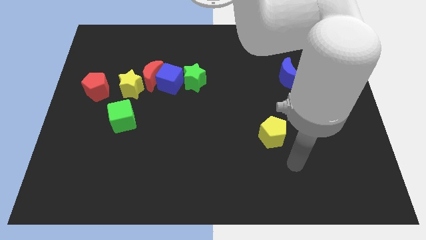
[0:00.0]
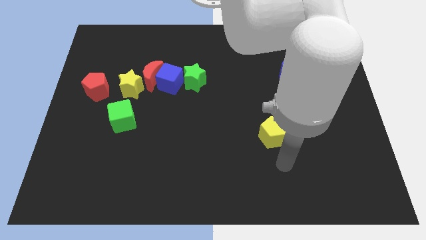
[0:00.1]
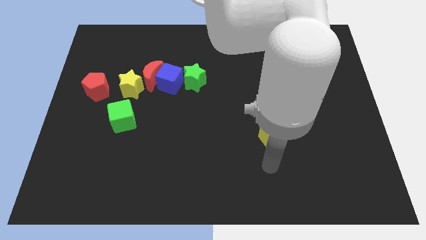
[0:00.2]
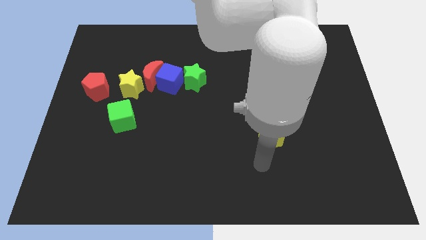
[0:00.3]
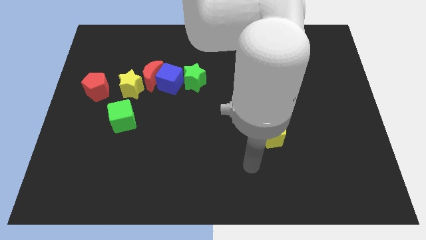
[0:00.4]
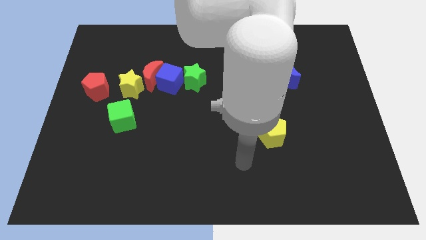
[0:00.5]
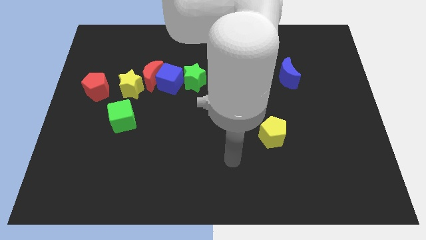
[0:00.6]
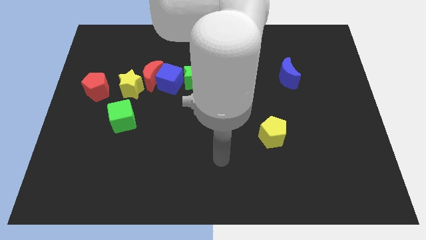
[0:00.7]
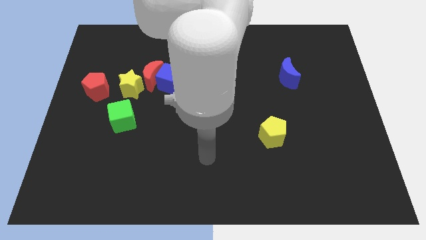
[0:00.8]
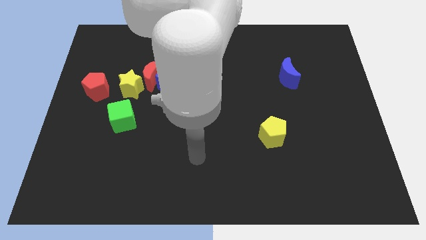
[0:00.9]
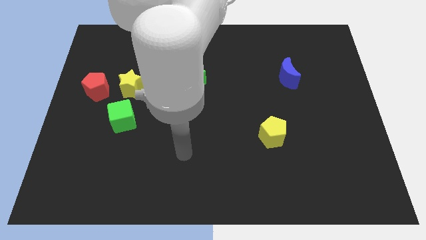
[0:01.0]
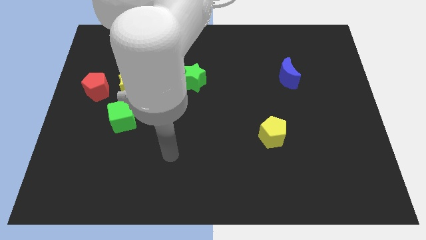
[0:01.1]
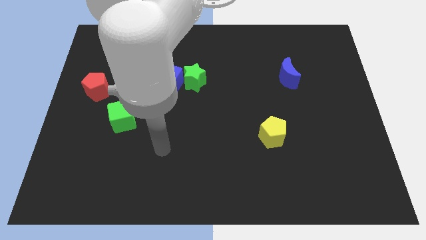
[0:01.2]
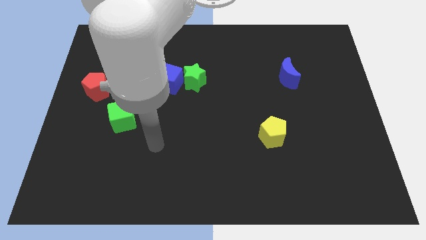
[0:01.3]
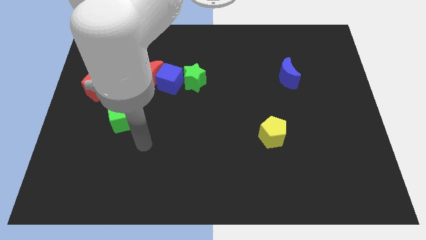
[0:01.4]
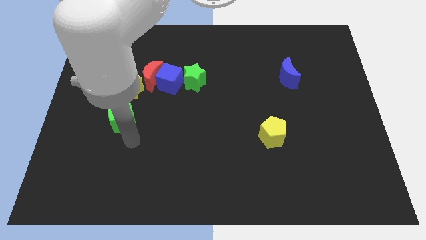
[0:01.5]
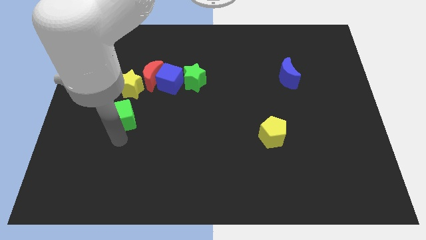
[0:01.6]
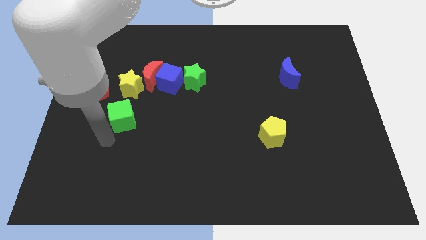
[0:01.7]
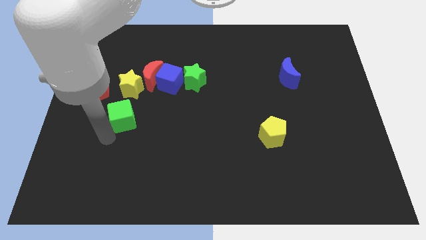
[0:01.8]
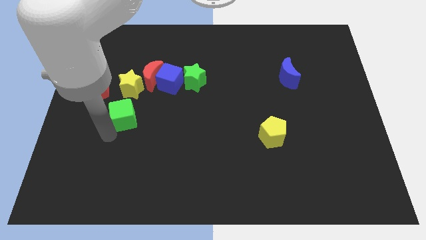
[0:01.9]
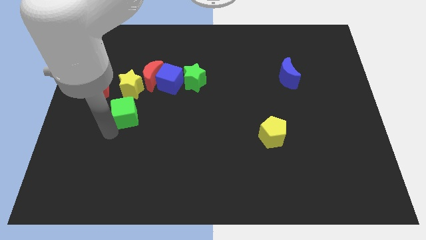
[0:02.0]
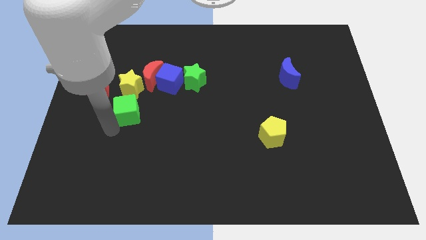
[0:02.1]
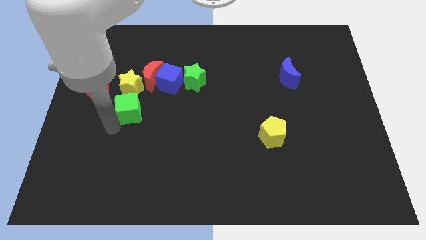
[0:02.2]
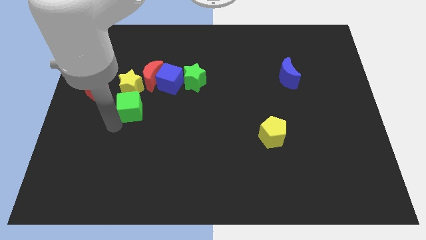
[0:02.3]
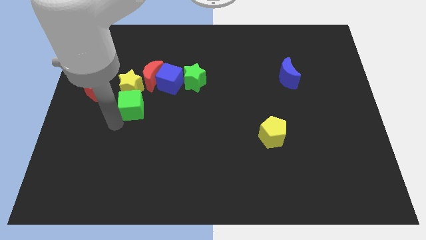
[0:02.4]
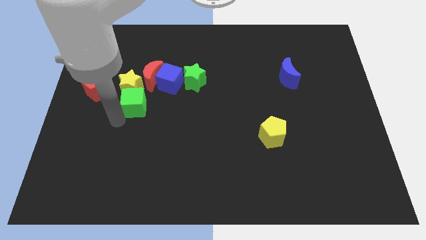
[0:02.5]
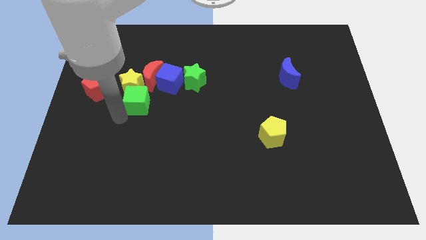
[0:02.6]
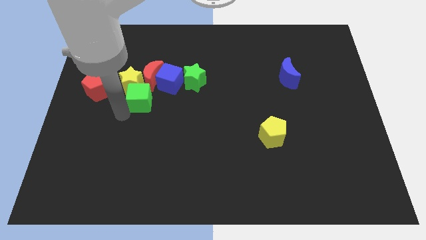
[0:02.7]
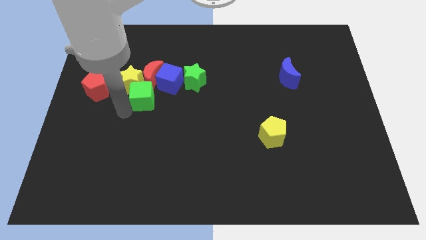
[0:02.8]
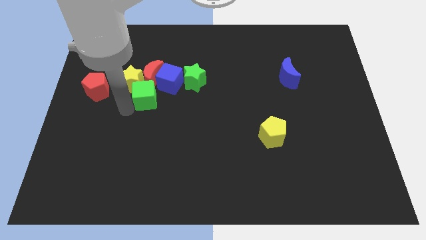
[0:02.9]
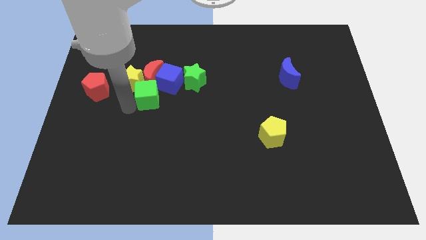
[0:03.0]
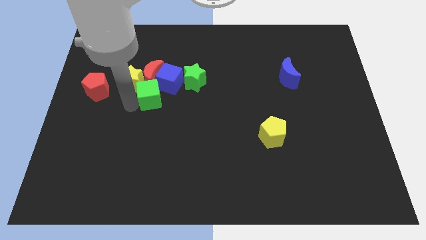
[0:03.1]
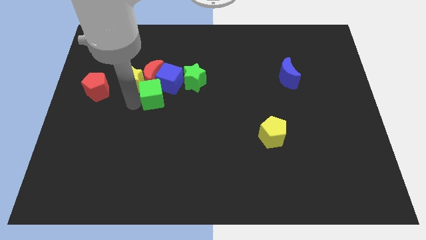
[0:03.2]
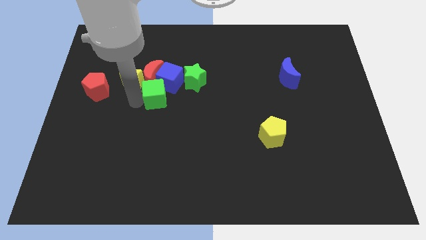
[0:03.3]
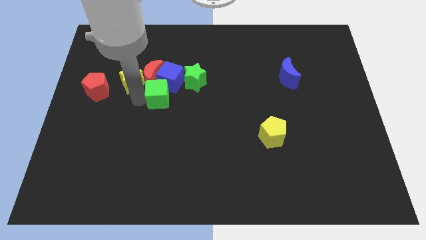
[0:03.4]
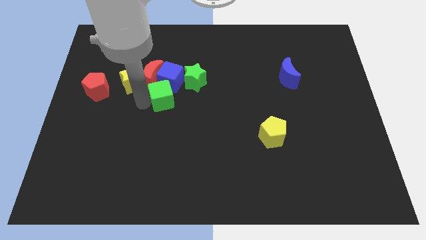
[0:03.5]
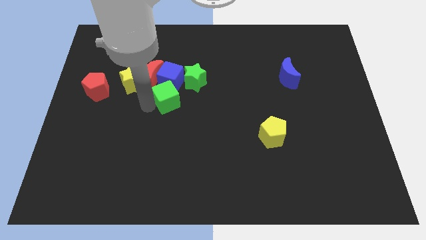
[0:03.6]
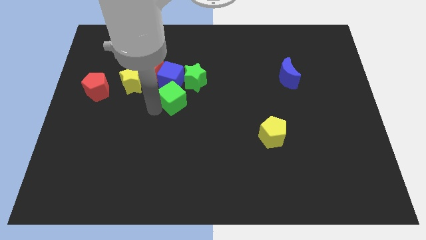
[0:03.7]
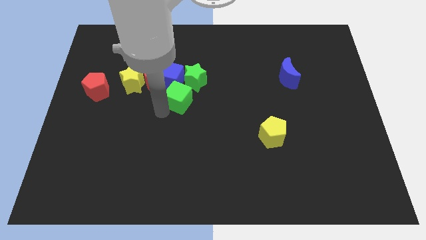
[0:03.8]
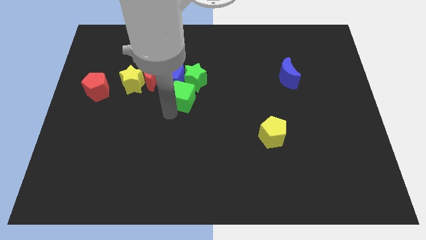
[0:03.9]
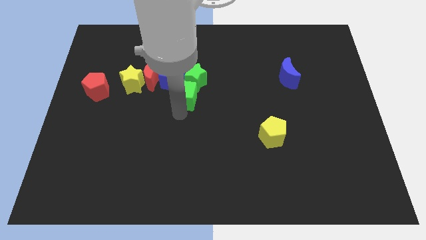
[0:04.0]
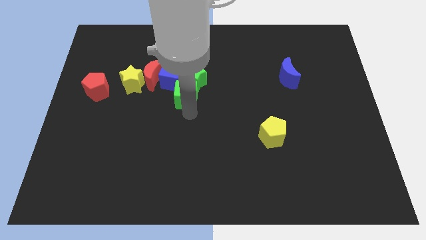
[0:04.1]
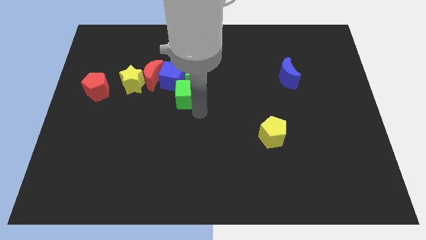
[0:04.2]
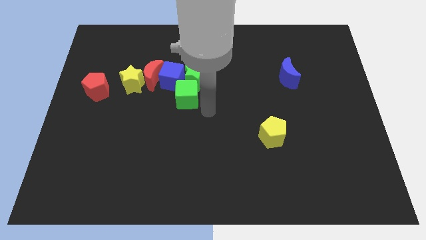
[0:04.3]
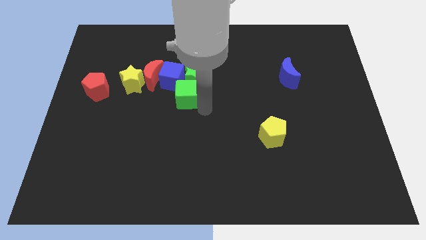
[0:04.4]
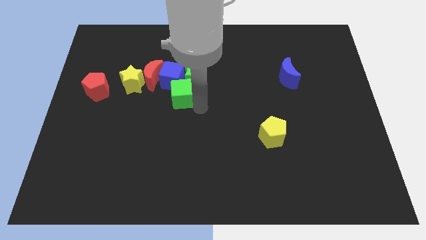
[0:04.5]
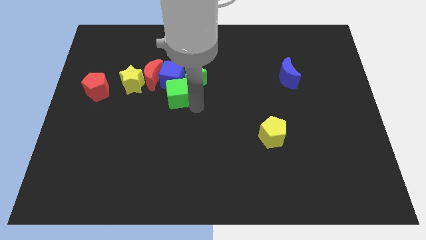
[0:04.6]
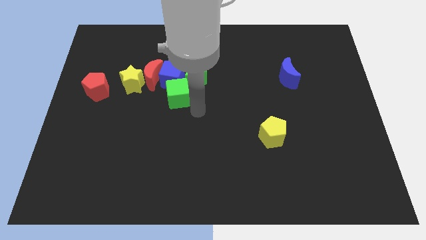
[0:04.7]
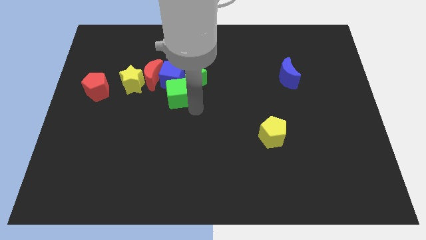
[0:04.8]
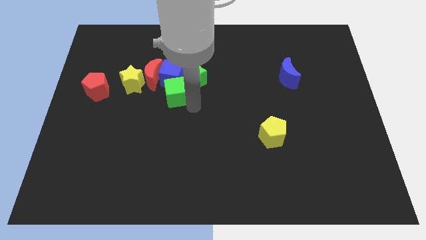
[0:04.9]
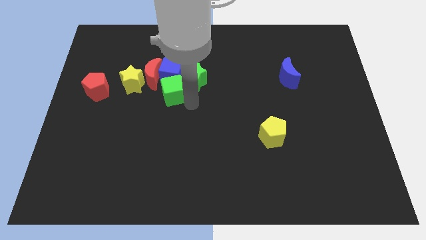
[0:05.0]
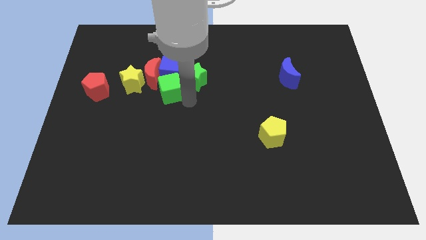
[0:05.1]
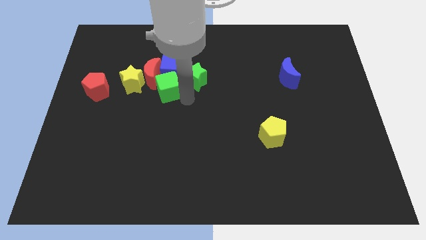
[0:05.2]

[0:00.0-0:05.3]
put the green cube next to the red moon

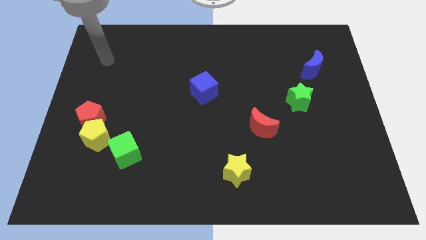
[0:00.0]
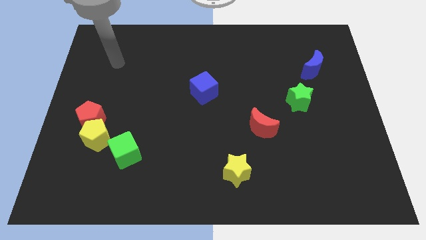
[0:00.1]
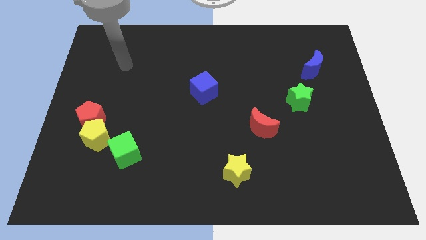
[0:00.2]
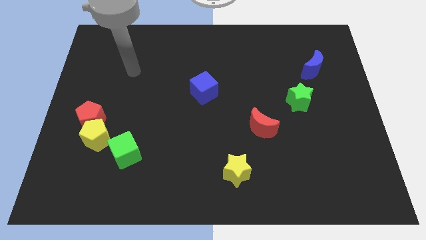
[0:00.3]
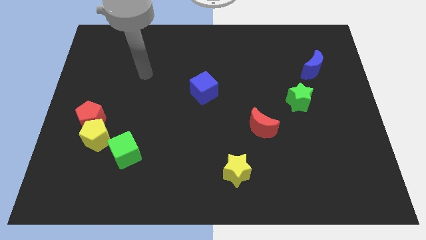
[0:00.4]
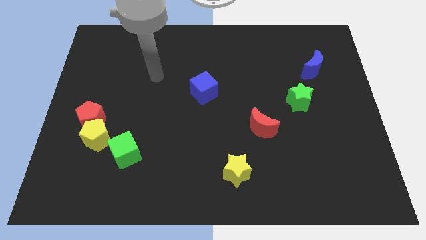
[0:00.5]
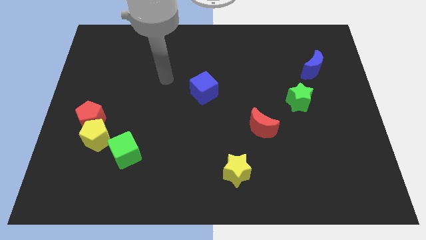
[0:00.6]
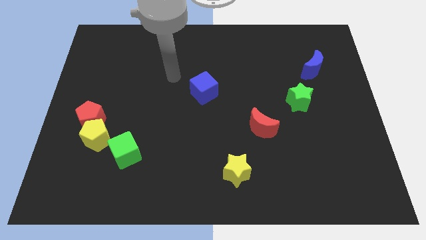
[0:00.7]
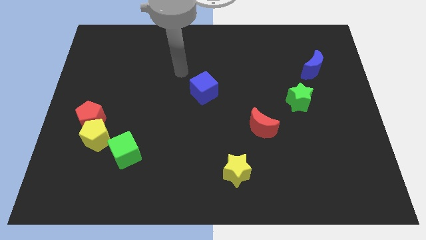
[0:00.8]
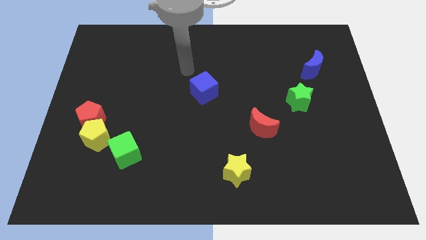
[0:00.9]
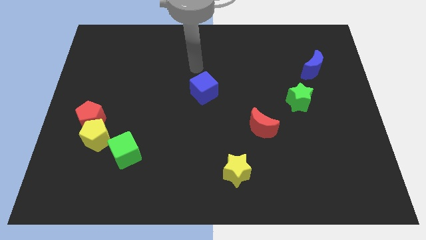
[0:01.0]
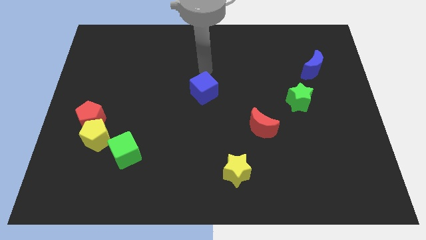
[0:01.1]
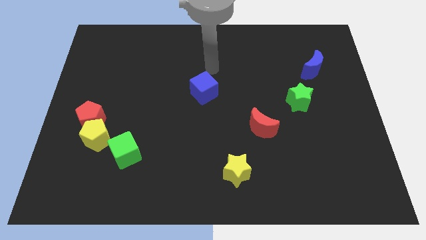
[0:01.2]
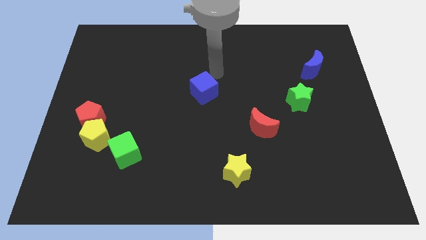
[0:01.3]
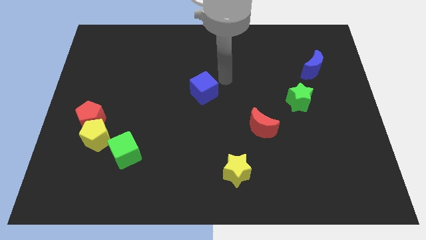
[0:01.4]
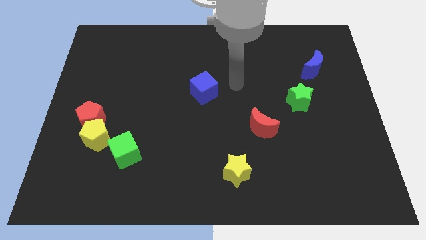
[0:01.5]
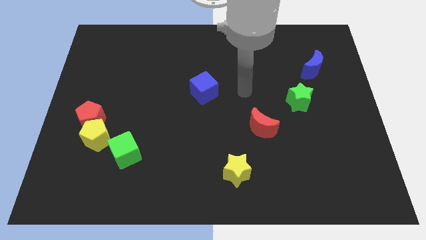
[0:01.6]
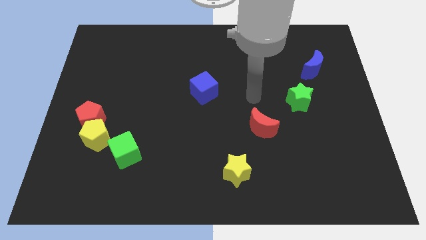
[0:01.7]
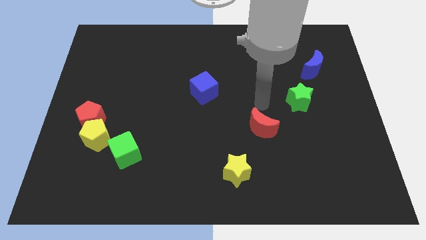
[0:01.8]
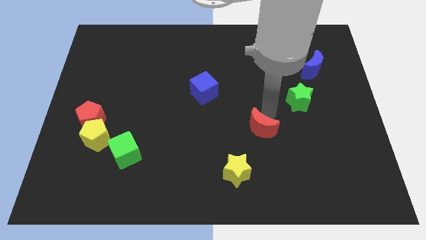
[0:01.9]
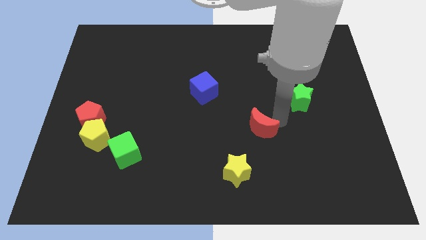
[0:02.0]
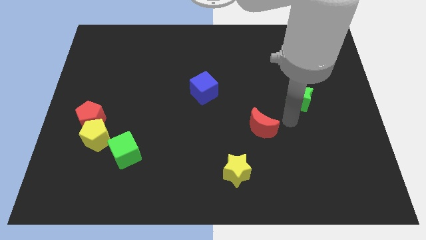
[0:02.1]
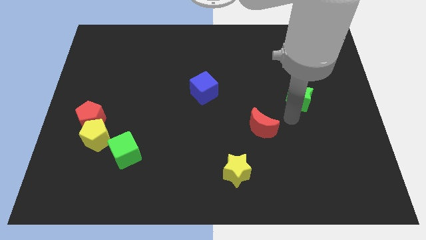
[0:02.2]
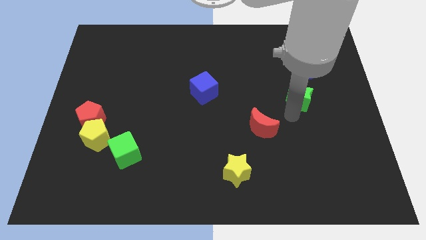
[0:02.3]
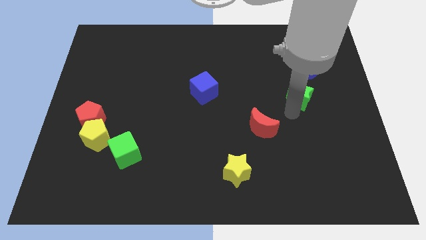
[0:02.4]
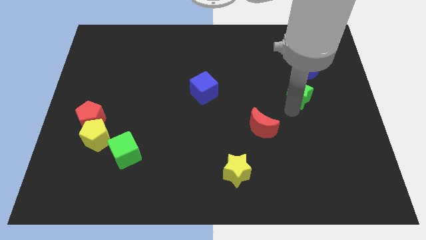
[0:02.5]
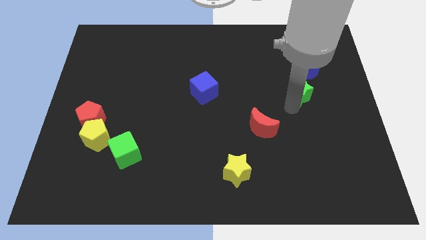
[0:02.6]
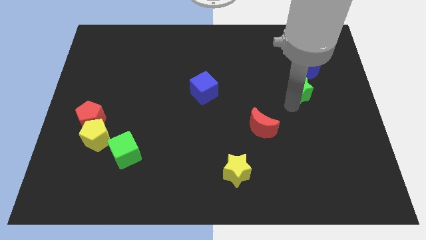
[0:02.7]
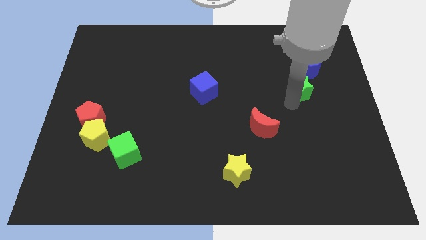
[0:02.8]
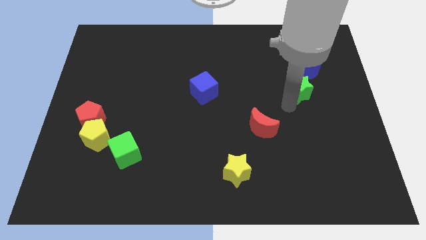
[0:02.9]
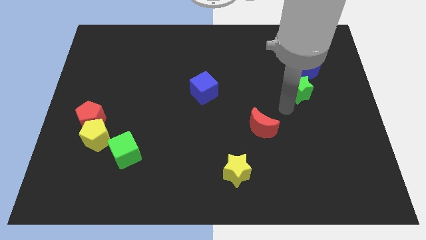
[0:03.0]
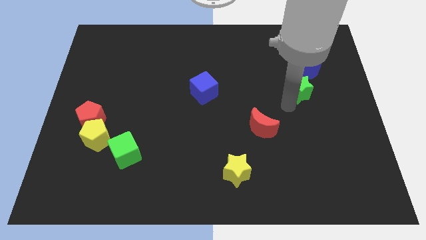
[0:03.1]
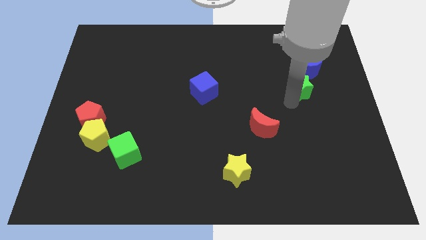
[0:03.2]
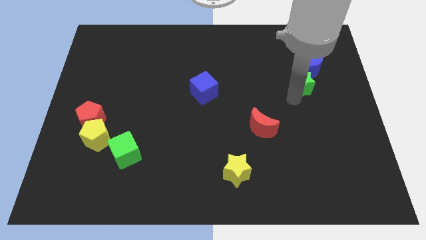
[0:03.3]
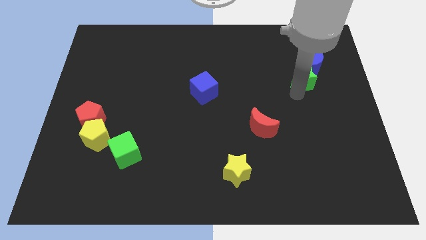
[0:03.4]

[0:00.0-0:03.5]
move the green star close to the blue moon
